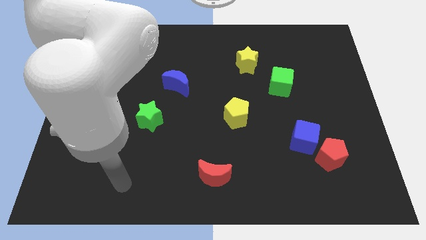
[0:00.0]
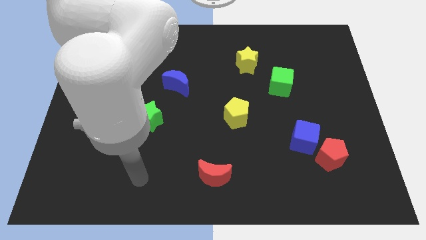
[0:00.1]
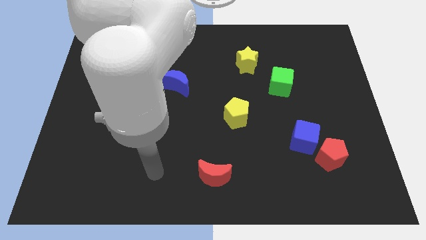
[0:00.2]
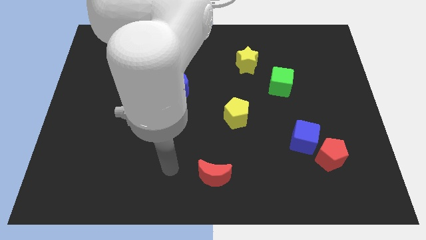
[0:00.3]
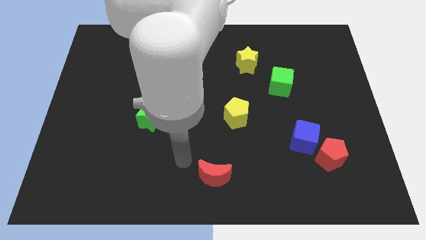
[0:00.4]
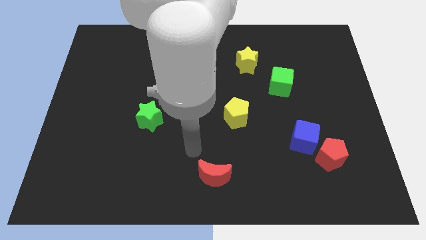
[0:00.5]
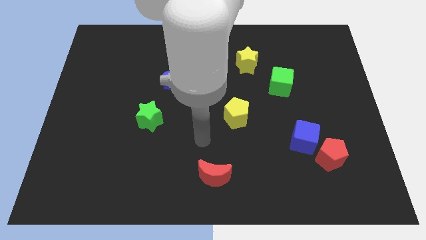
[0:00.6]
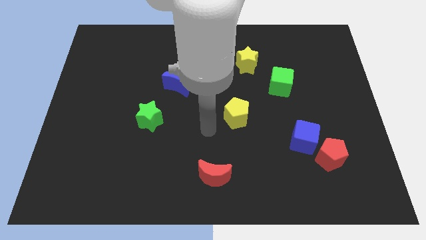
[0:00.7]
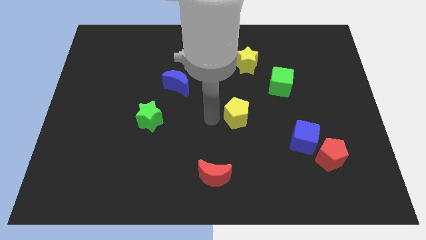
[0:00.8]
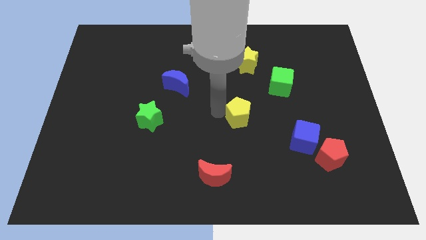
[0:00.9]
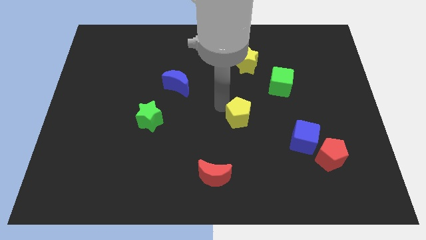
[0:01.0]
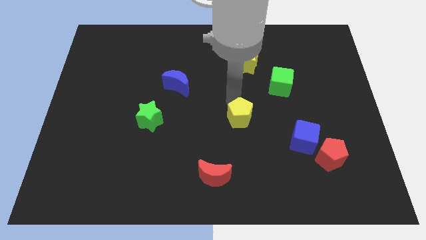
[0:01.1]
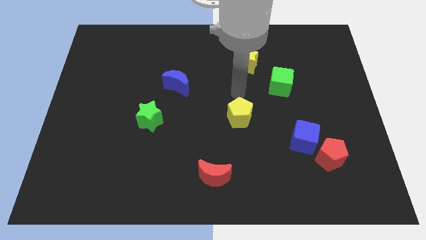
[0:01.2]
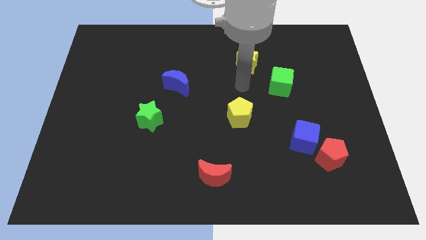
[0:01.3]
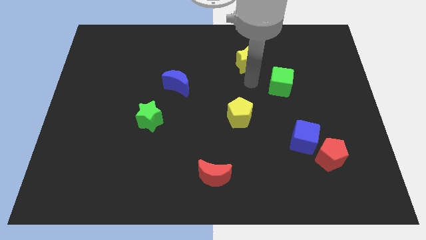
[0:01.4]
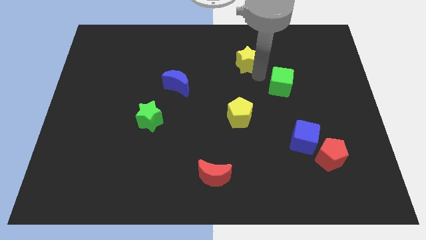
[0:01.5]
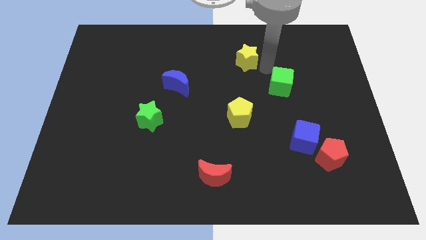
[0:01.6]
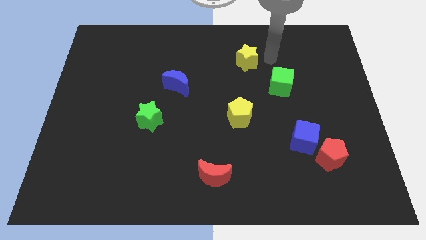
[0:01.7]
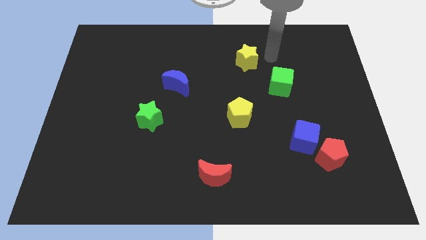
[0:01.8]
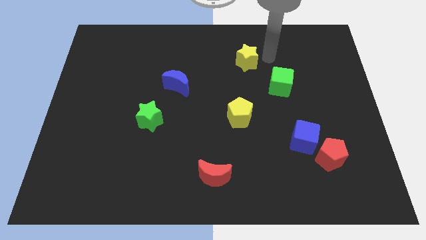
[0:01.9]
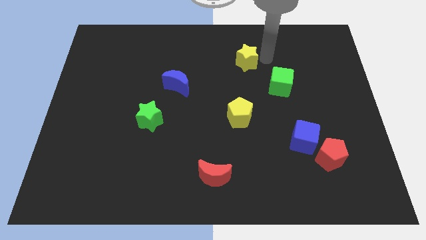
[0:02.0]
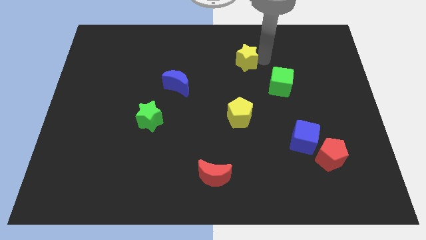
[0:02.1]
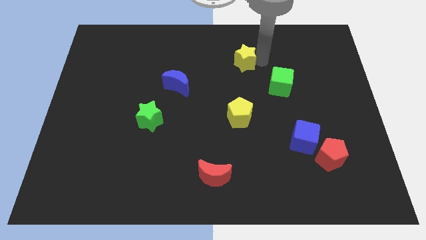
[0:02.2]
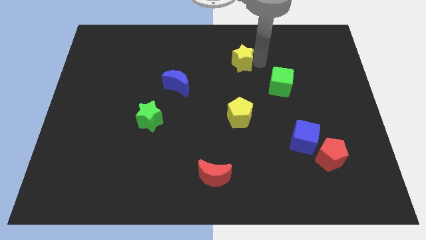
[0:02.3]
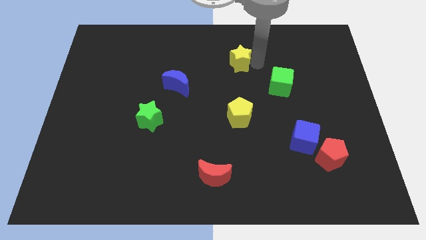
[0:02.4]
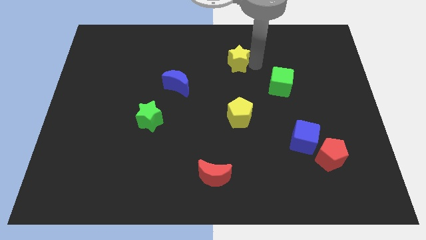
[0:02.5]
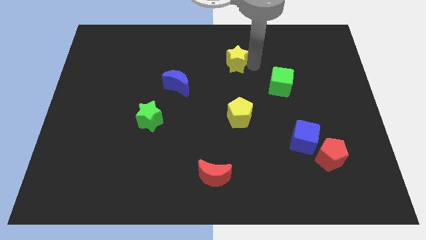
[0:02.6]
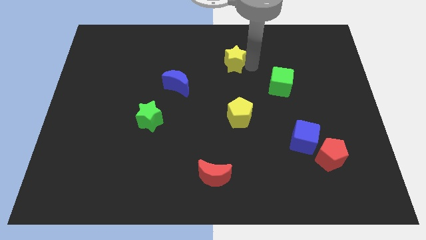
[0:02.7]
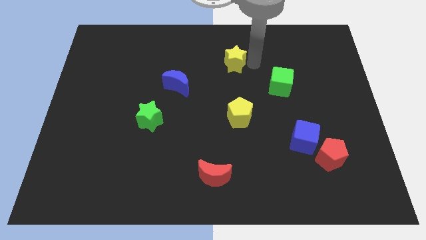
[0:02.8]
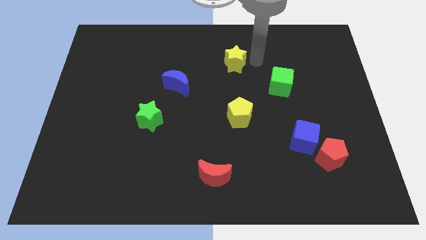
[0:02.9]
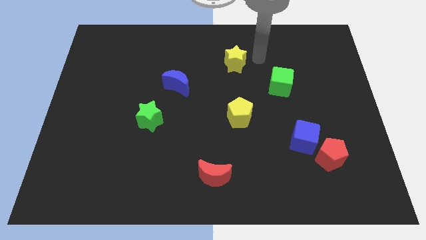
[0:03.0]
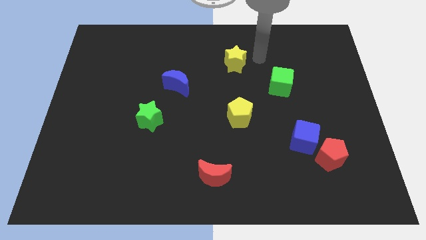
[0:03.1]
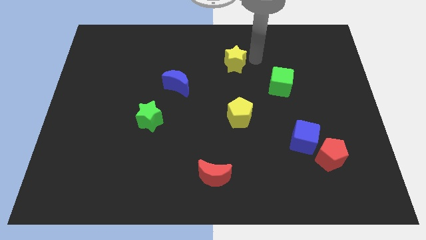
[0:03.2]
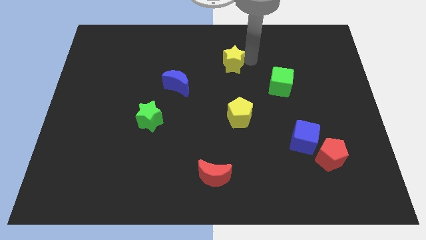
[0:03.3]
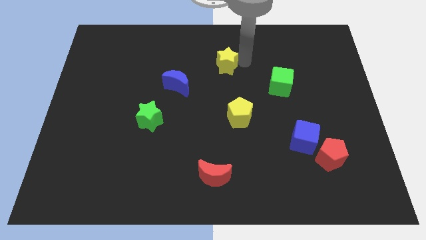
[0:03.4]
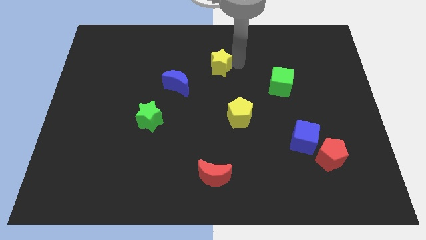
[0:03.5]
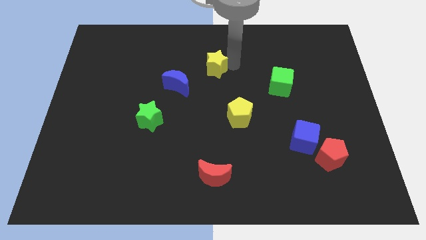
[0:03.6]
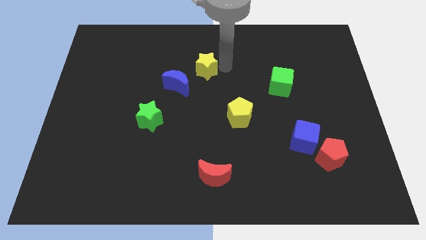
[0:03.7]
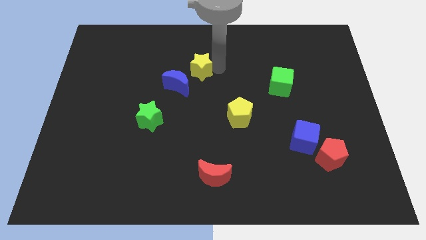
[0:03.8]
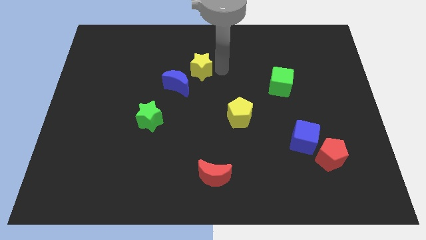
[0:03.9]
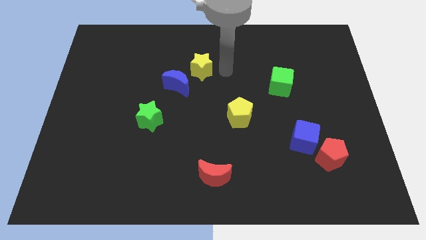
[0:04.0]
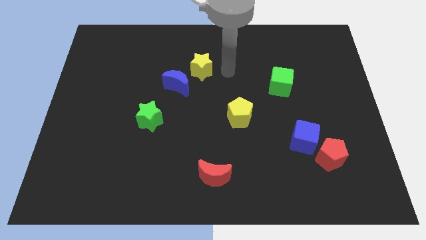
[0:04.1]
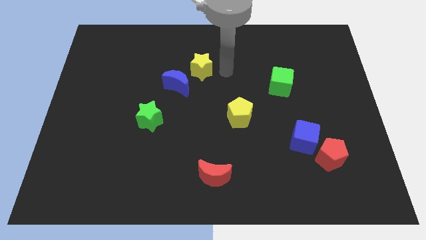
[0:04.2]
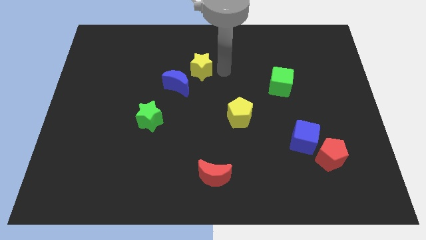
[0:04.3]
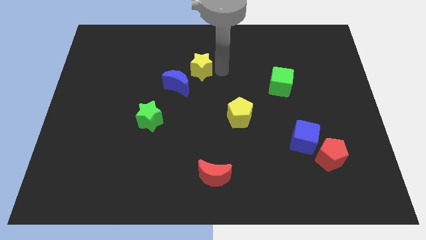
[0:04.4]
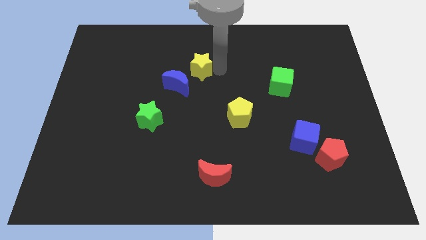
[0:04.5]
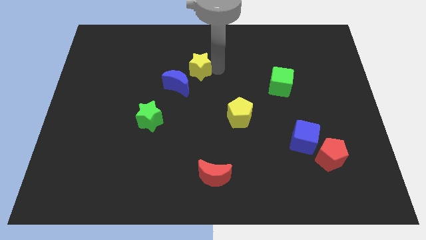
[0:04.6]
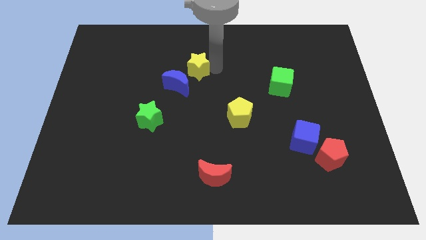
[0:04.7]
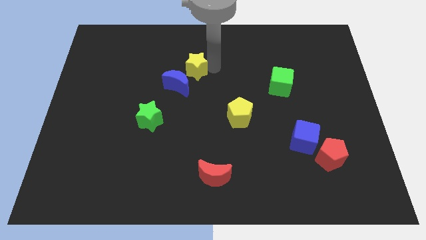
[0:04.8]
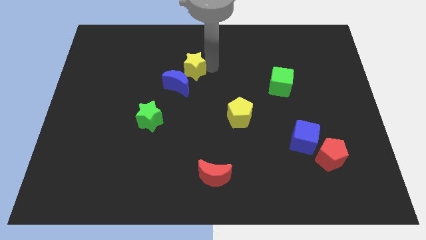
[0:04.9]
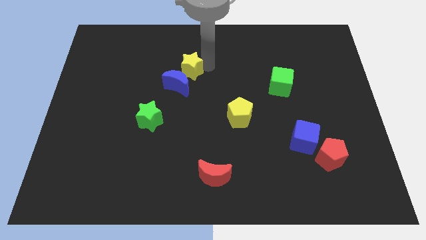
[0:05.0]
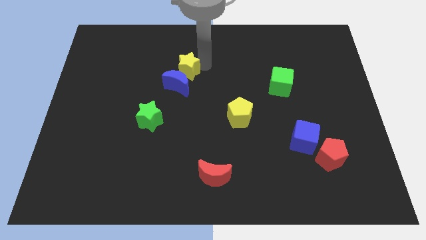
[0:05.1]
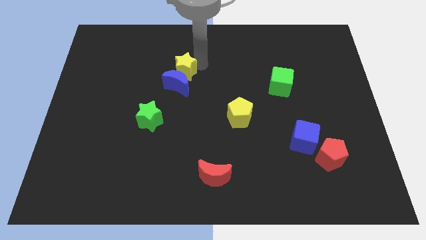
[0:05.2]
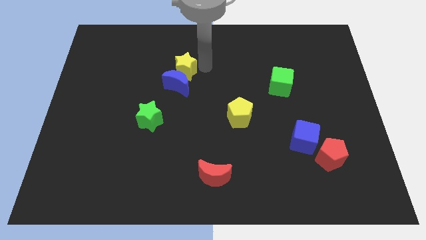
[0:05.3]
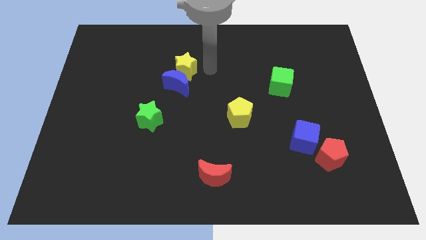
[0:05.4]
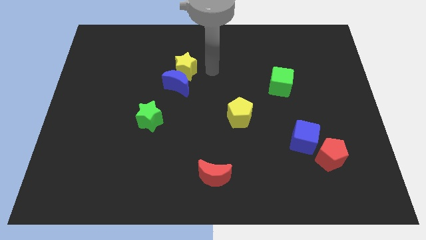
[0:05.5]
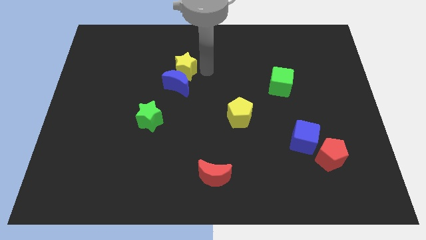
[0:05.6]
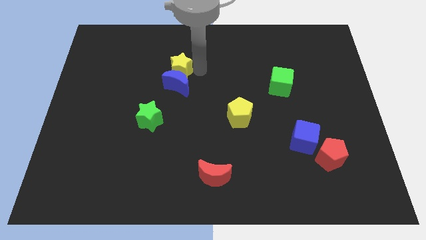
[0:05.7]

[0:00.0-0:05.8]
push the yellow star diagonally up and to the left of the blue moon

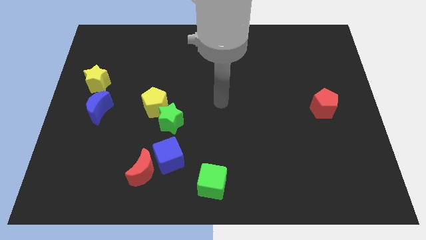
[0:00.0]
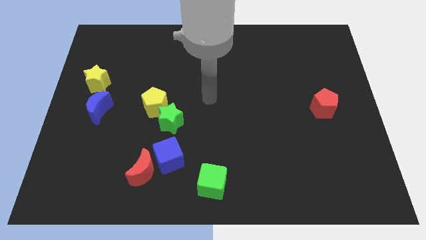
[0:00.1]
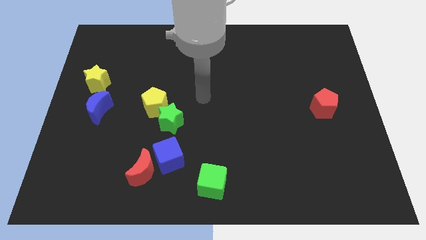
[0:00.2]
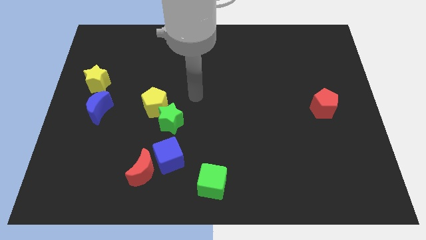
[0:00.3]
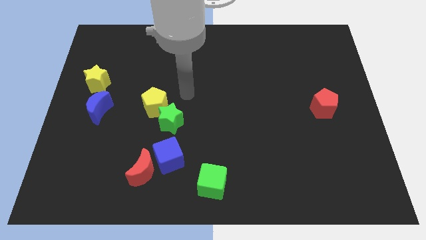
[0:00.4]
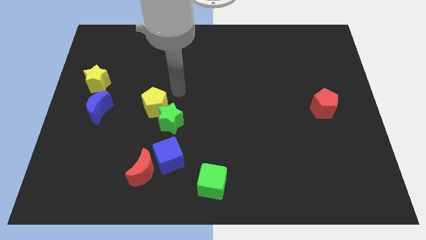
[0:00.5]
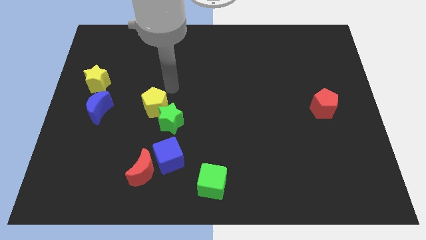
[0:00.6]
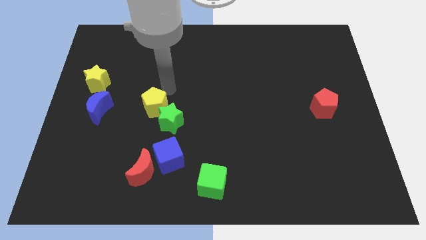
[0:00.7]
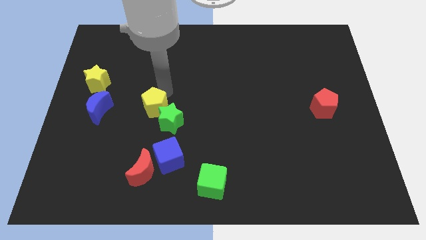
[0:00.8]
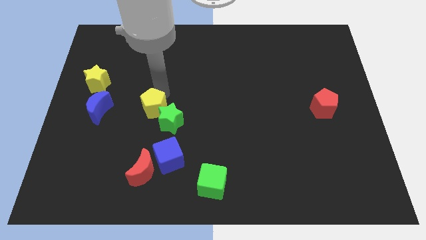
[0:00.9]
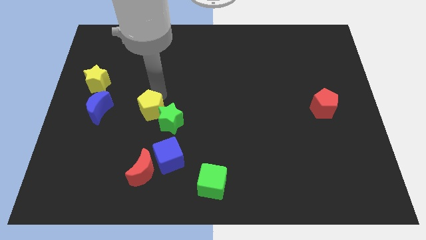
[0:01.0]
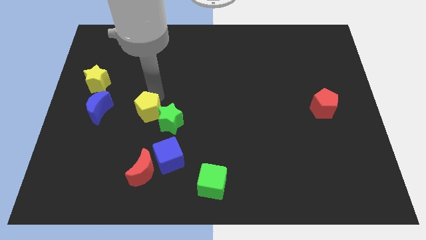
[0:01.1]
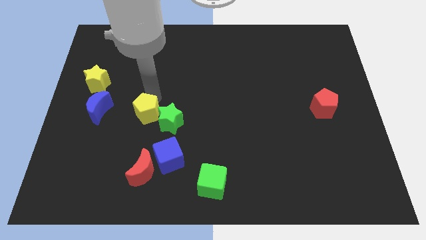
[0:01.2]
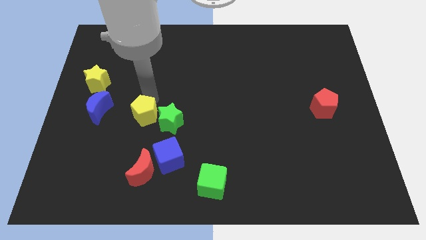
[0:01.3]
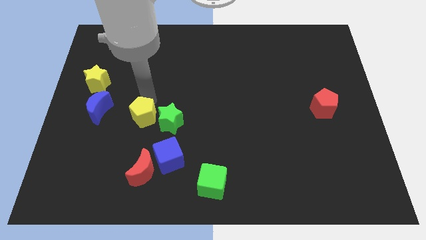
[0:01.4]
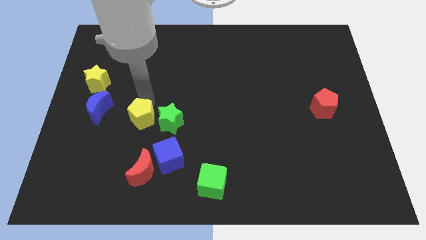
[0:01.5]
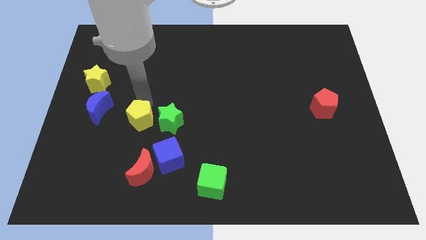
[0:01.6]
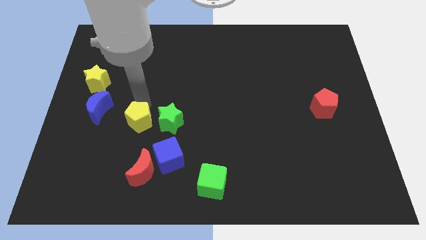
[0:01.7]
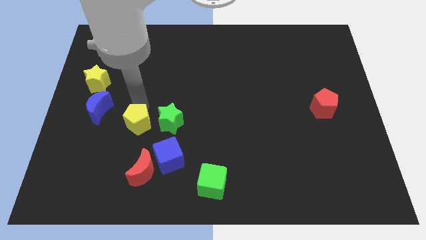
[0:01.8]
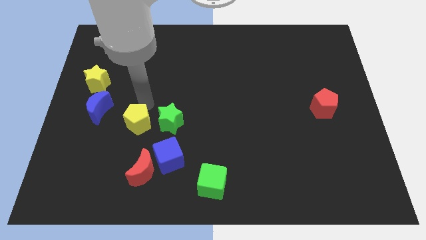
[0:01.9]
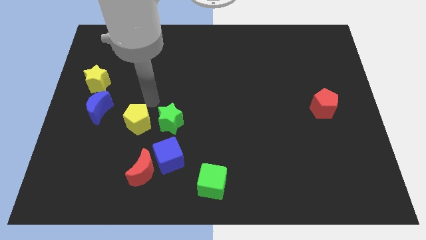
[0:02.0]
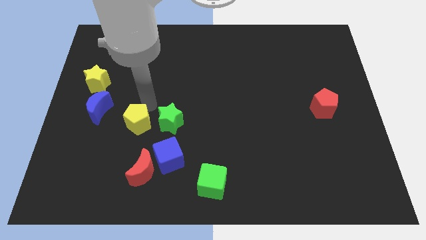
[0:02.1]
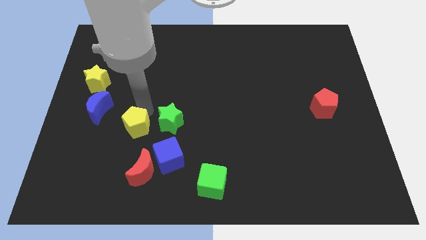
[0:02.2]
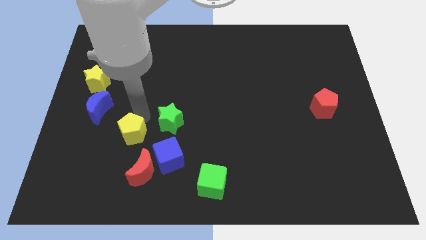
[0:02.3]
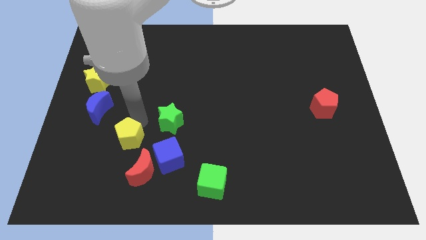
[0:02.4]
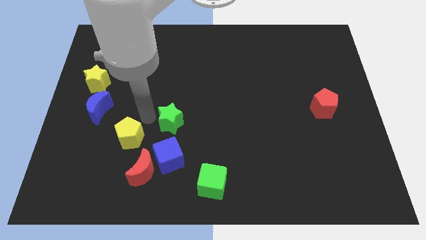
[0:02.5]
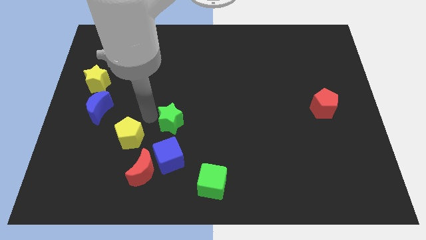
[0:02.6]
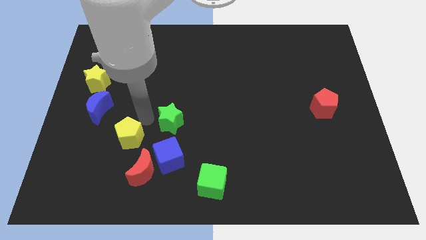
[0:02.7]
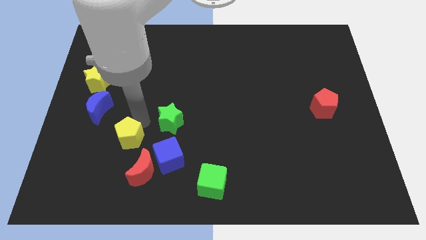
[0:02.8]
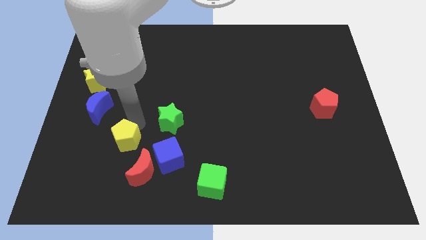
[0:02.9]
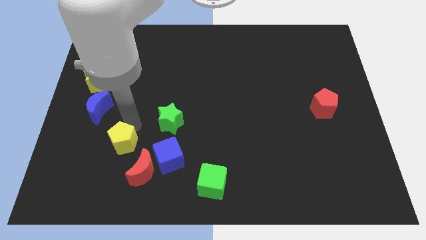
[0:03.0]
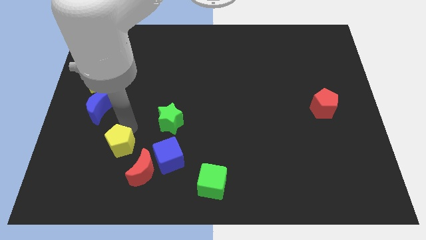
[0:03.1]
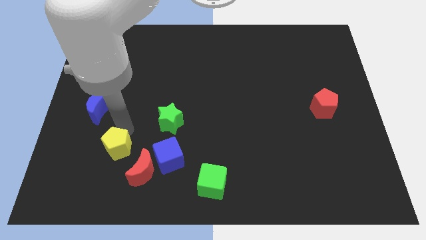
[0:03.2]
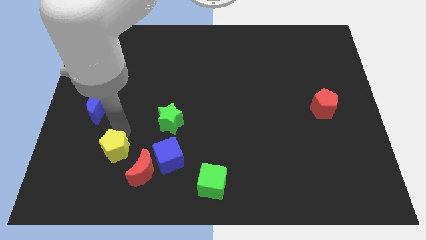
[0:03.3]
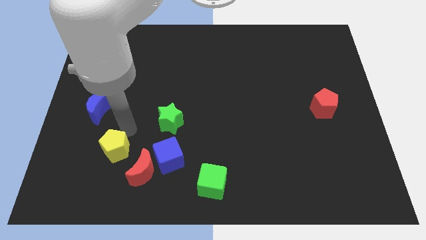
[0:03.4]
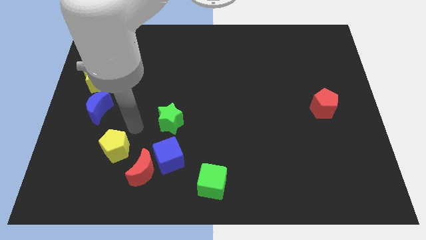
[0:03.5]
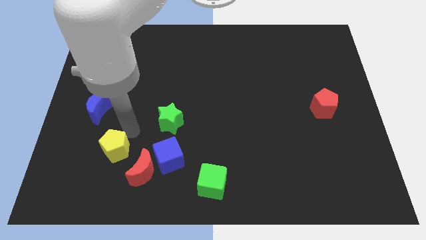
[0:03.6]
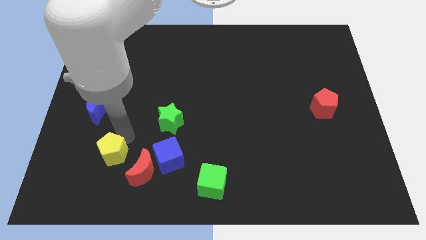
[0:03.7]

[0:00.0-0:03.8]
slide the yellow pentagon to the left side of the red moon
